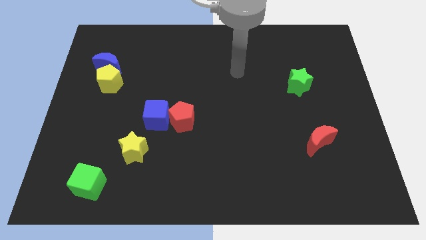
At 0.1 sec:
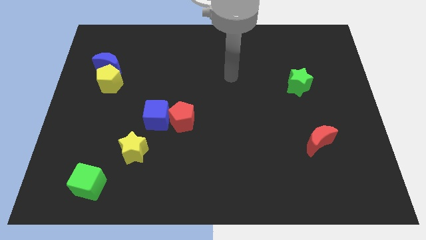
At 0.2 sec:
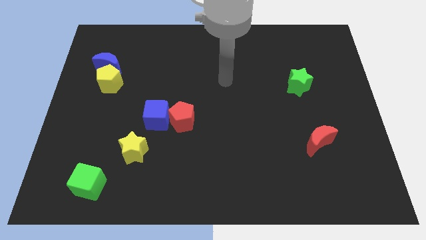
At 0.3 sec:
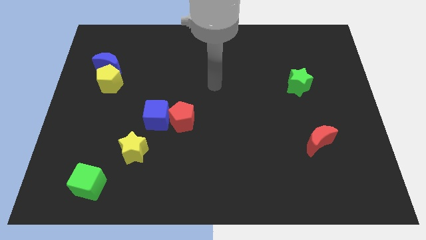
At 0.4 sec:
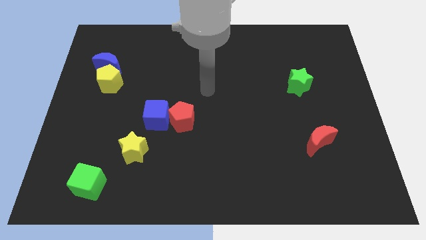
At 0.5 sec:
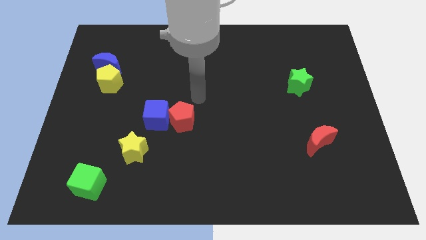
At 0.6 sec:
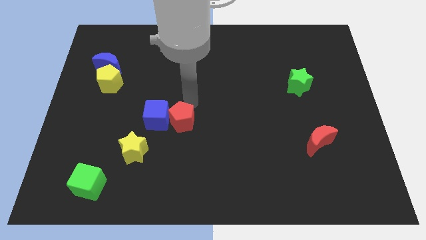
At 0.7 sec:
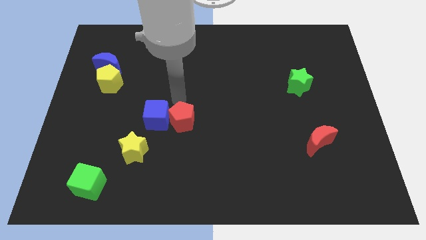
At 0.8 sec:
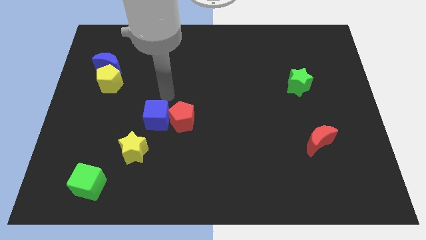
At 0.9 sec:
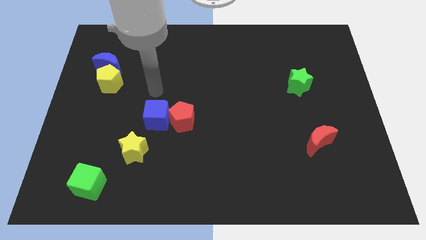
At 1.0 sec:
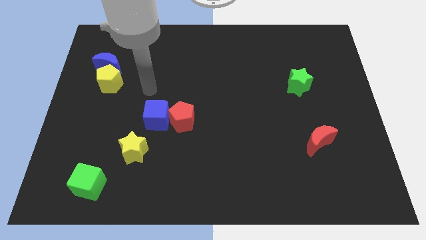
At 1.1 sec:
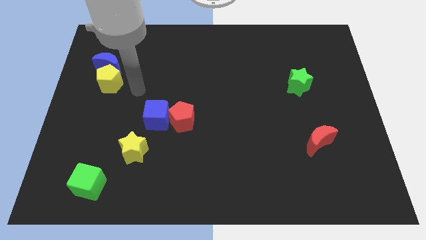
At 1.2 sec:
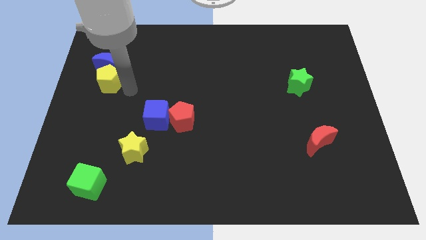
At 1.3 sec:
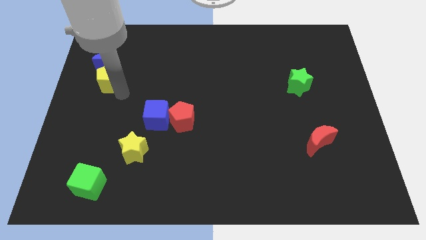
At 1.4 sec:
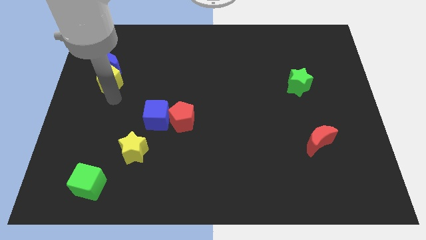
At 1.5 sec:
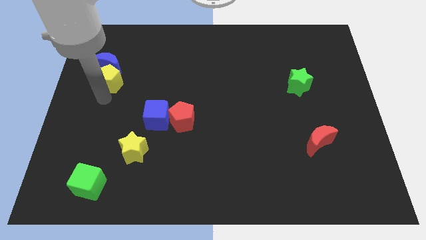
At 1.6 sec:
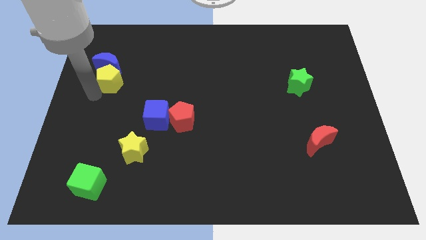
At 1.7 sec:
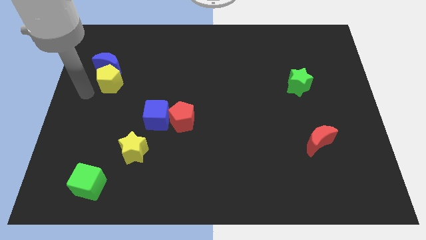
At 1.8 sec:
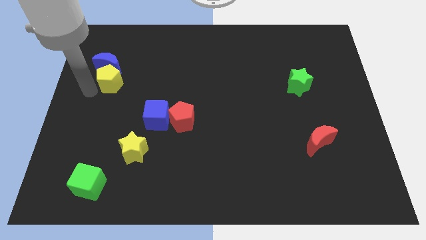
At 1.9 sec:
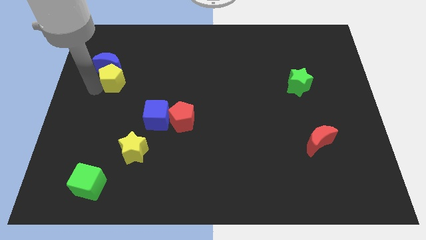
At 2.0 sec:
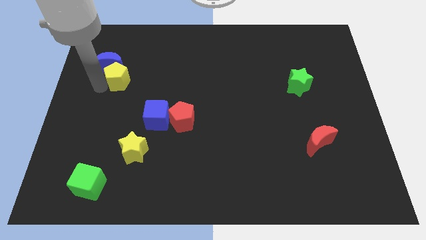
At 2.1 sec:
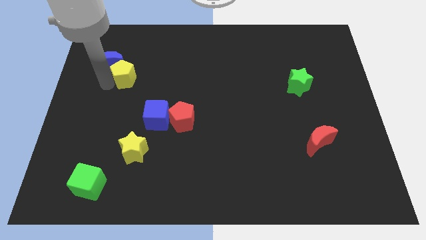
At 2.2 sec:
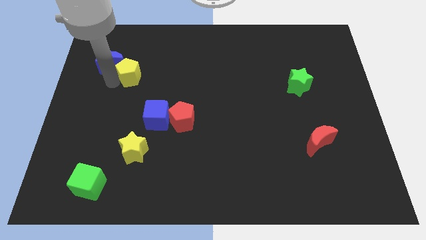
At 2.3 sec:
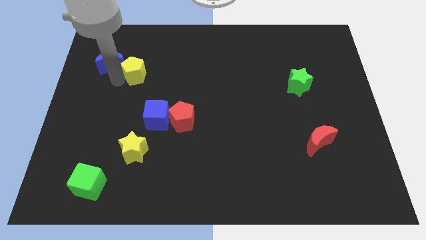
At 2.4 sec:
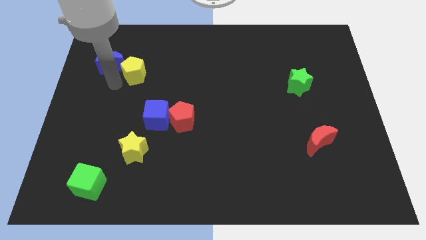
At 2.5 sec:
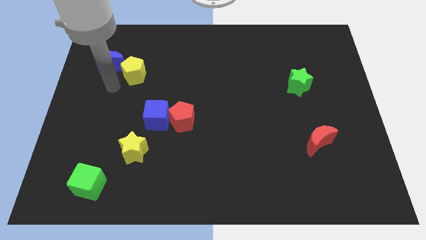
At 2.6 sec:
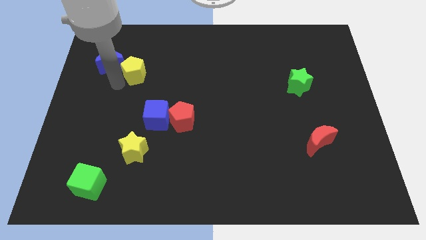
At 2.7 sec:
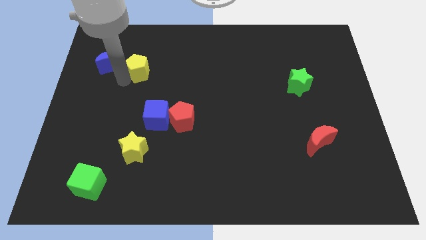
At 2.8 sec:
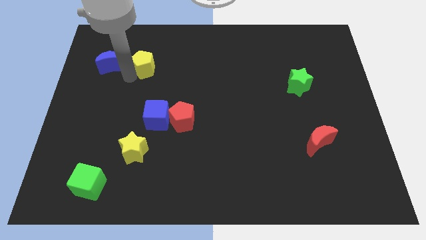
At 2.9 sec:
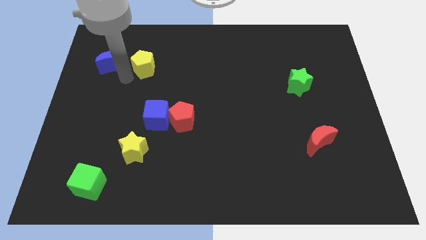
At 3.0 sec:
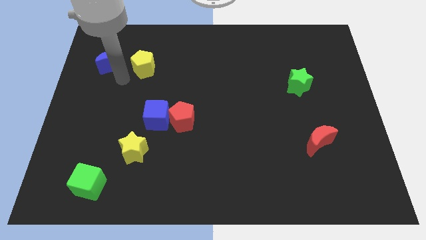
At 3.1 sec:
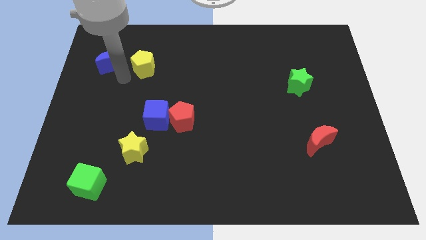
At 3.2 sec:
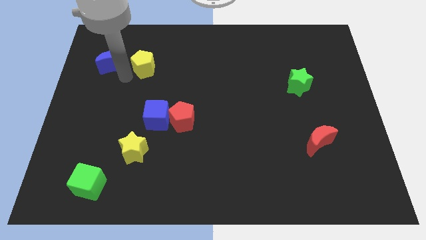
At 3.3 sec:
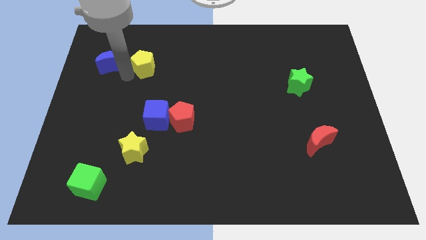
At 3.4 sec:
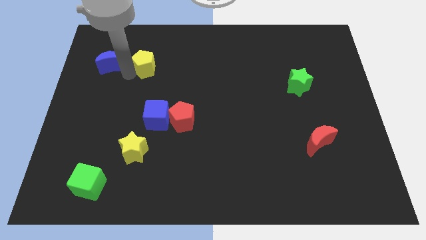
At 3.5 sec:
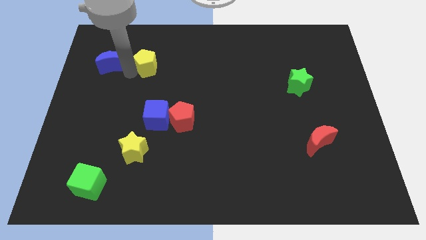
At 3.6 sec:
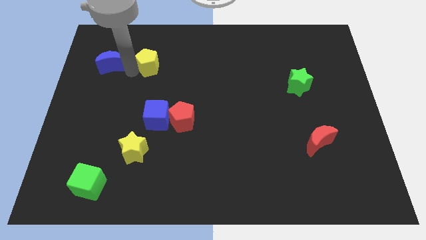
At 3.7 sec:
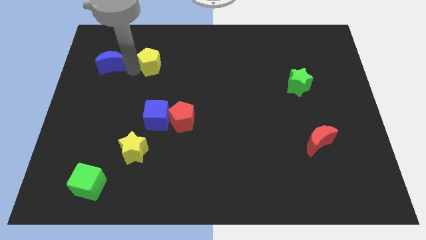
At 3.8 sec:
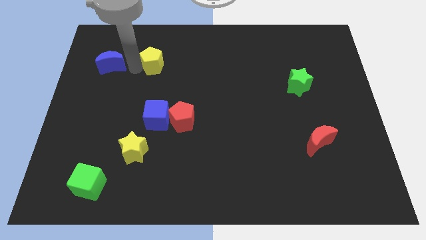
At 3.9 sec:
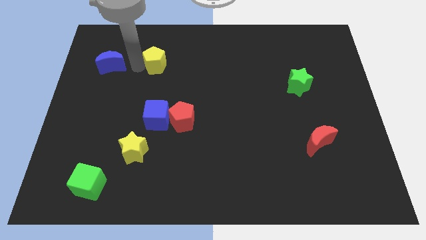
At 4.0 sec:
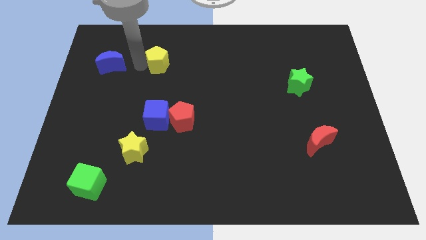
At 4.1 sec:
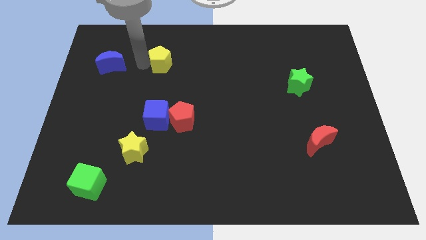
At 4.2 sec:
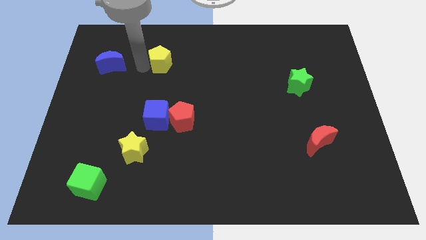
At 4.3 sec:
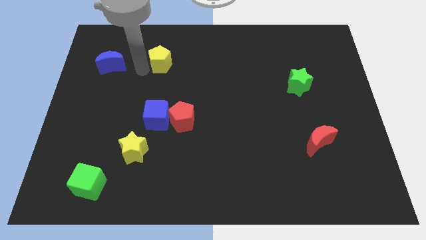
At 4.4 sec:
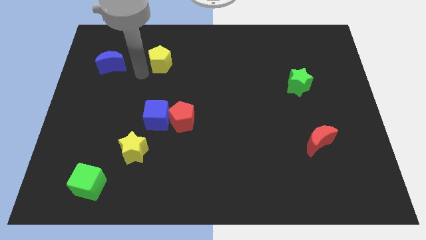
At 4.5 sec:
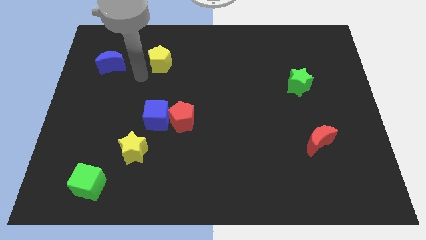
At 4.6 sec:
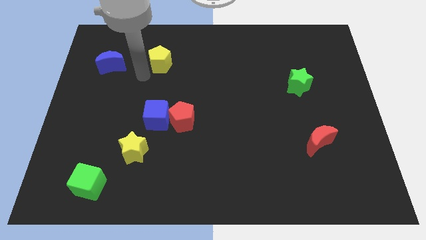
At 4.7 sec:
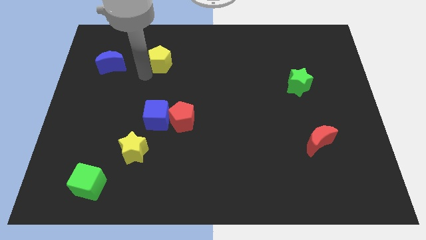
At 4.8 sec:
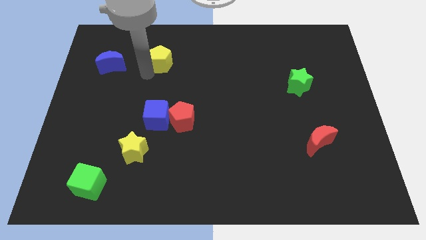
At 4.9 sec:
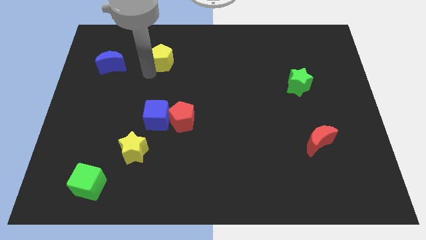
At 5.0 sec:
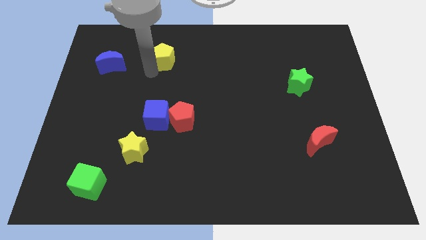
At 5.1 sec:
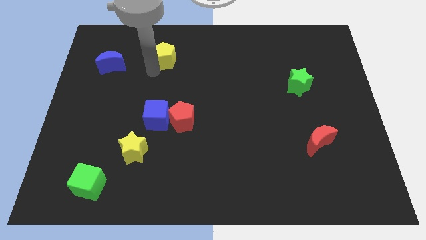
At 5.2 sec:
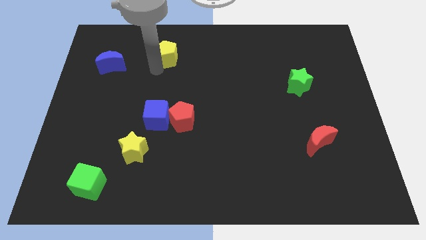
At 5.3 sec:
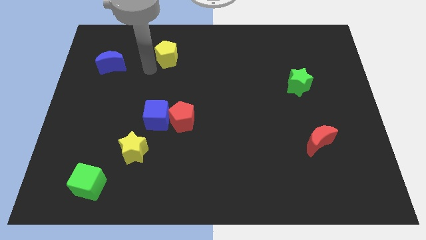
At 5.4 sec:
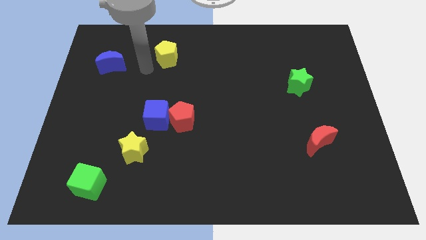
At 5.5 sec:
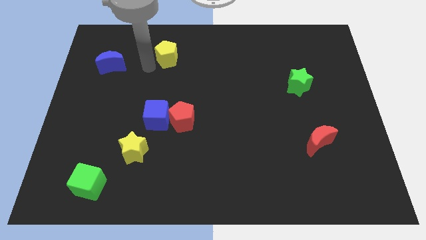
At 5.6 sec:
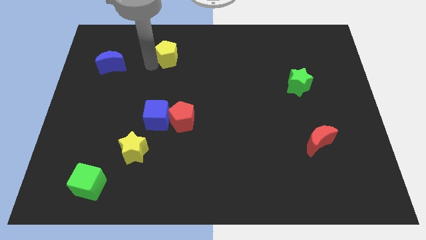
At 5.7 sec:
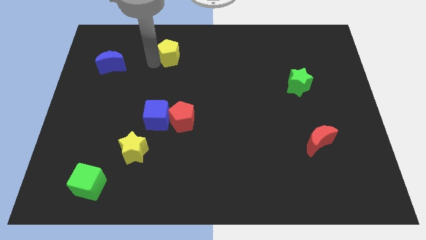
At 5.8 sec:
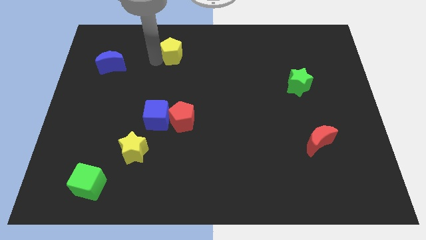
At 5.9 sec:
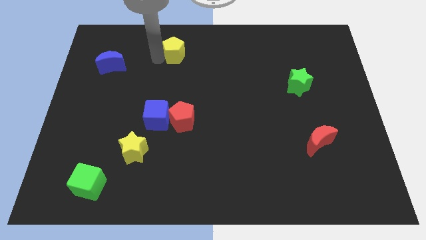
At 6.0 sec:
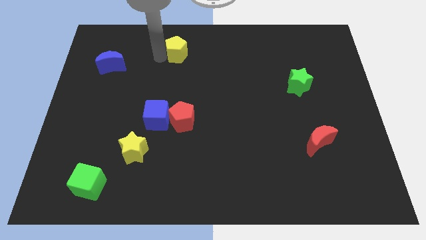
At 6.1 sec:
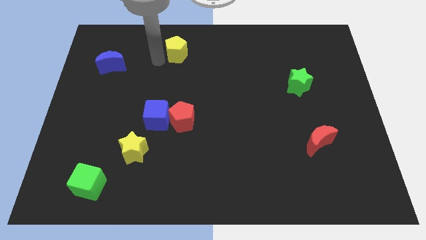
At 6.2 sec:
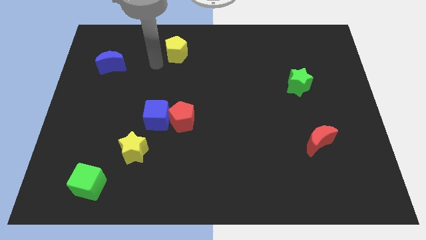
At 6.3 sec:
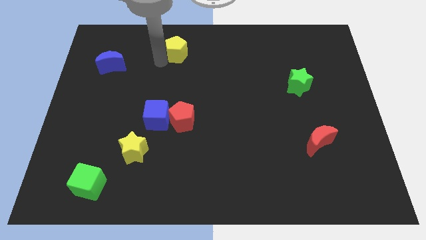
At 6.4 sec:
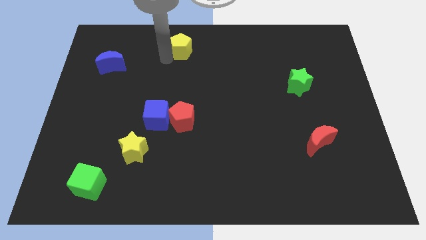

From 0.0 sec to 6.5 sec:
slide the yellow pentagon to the towards your base
